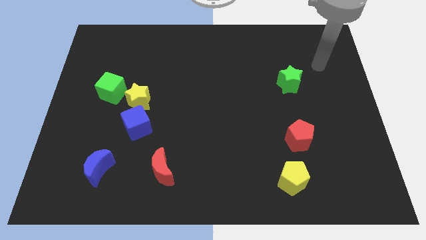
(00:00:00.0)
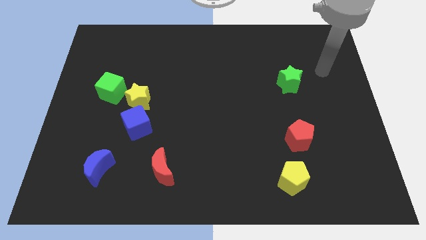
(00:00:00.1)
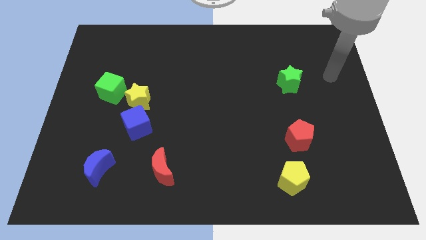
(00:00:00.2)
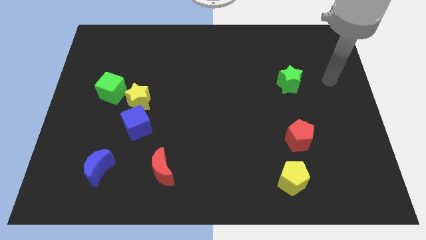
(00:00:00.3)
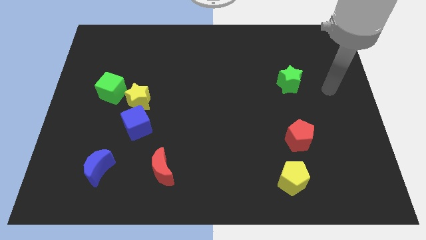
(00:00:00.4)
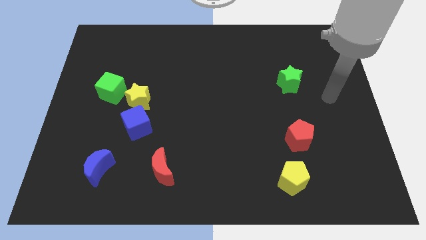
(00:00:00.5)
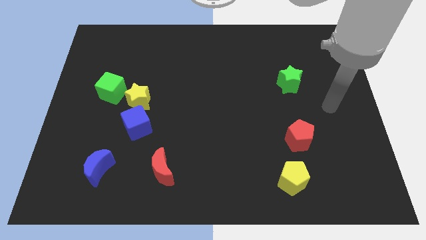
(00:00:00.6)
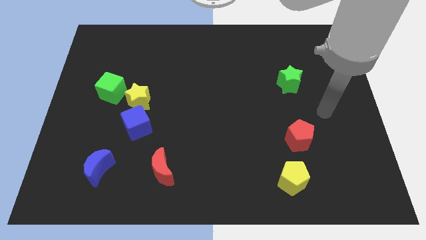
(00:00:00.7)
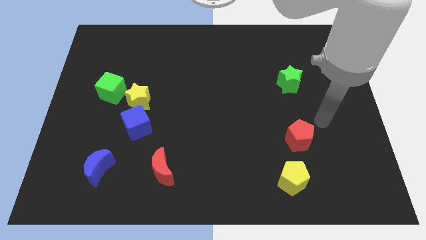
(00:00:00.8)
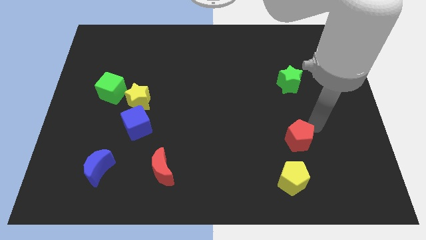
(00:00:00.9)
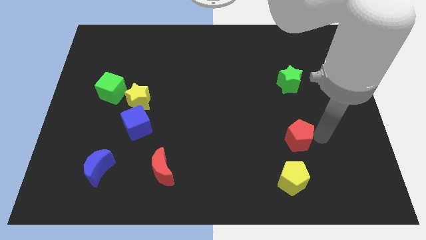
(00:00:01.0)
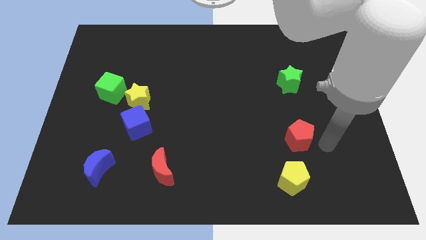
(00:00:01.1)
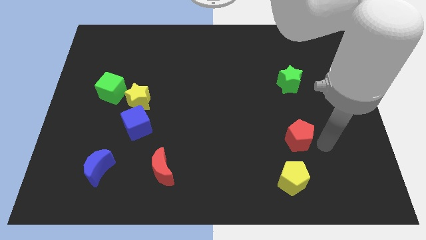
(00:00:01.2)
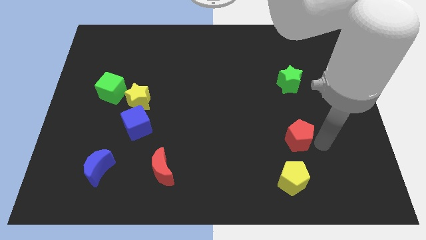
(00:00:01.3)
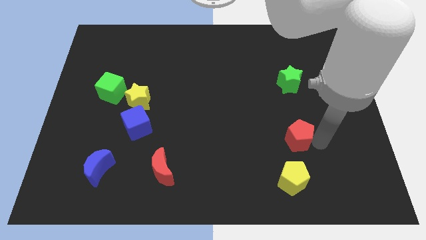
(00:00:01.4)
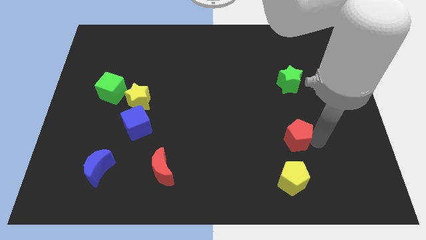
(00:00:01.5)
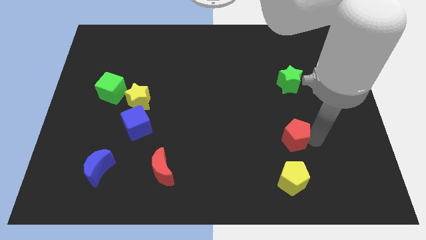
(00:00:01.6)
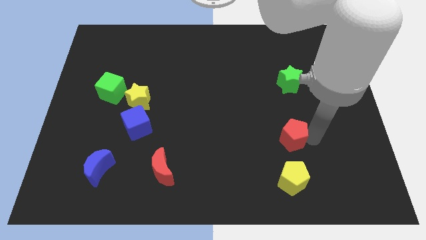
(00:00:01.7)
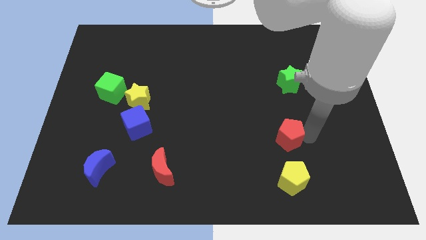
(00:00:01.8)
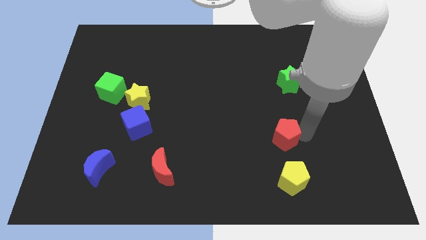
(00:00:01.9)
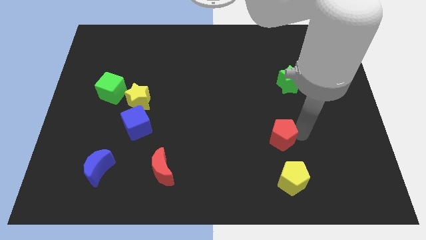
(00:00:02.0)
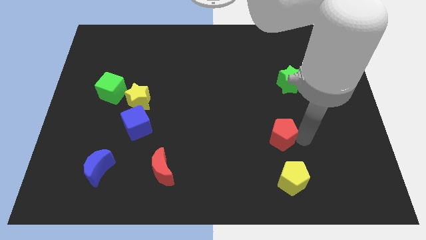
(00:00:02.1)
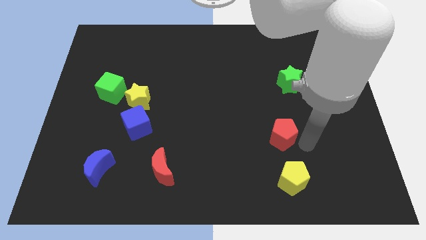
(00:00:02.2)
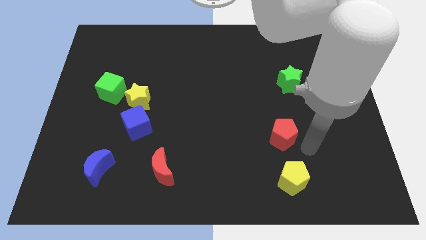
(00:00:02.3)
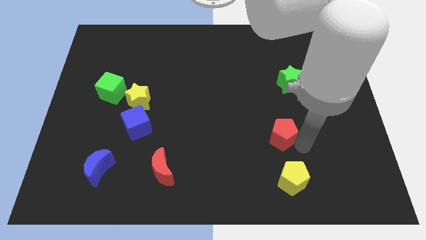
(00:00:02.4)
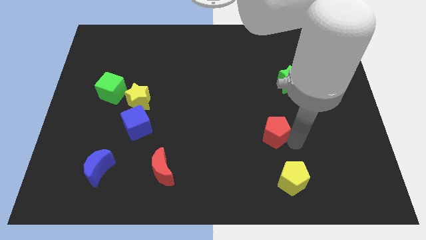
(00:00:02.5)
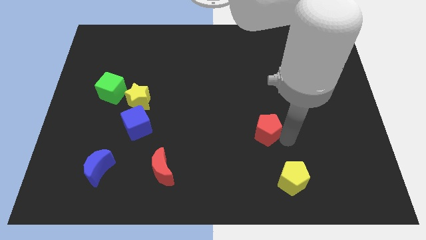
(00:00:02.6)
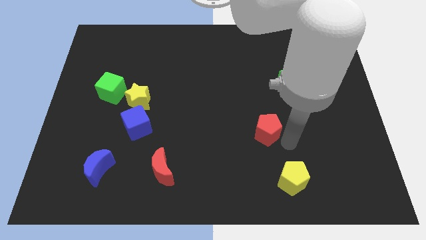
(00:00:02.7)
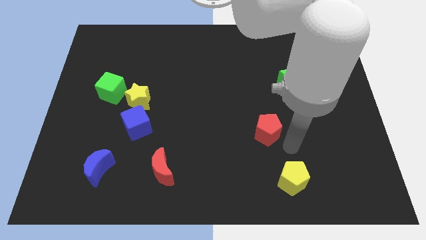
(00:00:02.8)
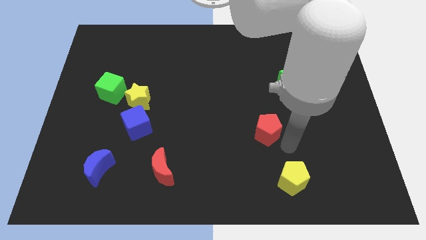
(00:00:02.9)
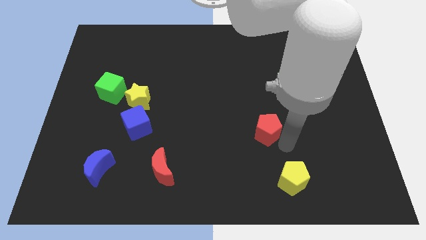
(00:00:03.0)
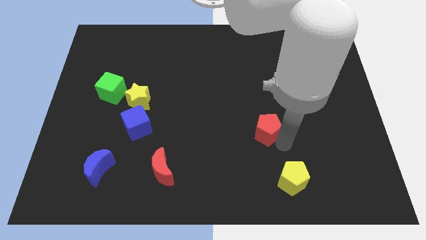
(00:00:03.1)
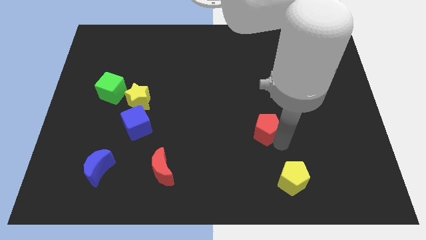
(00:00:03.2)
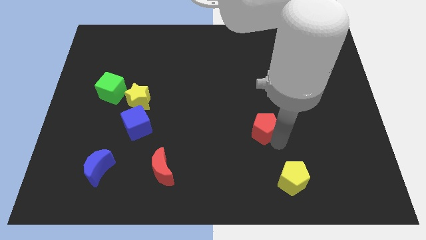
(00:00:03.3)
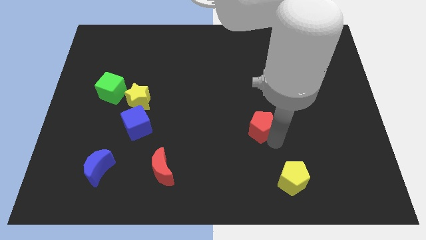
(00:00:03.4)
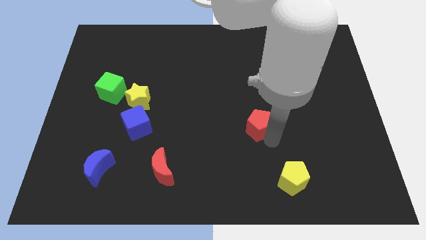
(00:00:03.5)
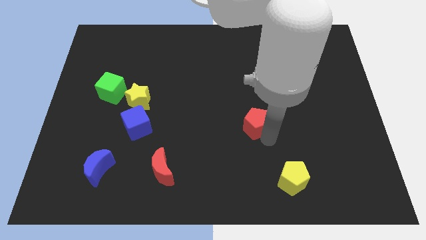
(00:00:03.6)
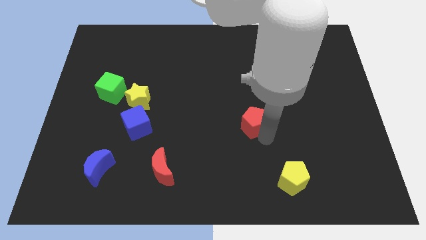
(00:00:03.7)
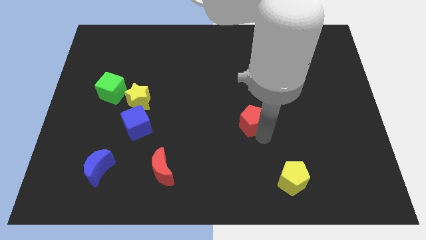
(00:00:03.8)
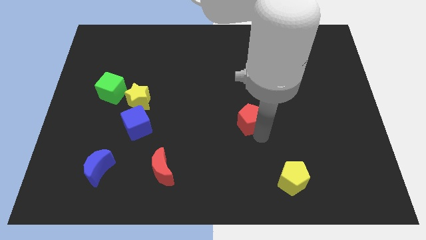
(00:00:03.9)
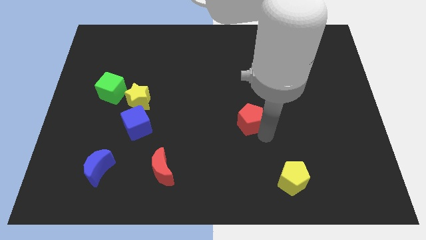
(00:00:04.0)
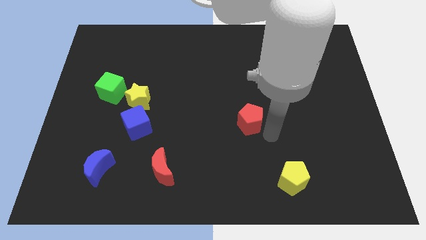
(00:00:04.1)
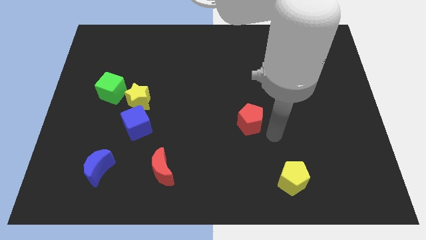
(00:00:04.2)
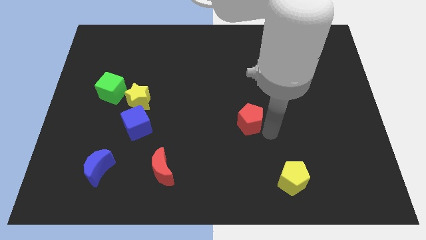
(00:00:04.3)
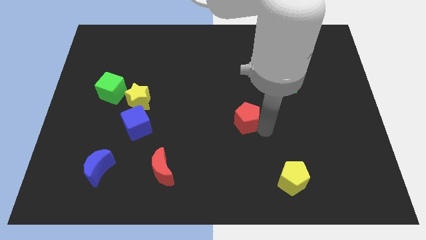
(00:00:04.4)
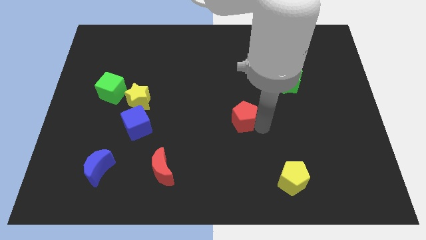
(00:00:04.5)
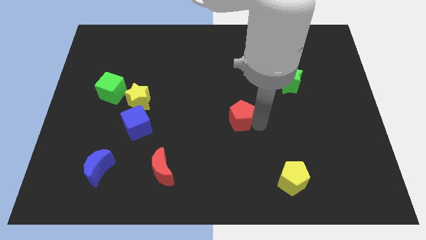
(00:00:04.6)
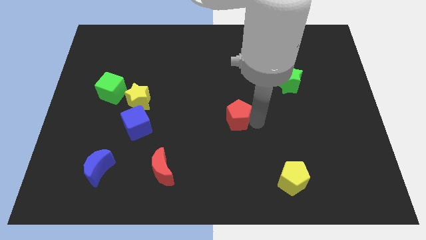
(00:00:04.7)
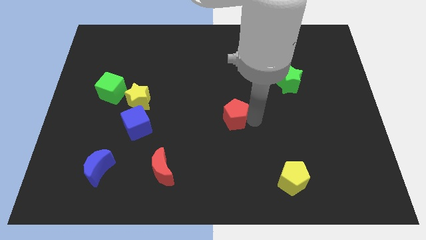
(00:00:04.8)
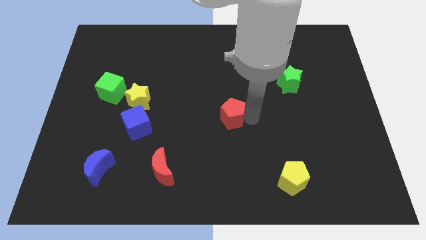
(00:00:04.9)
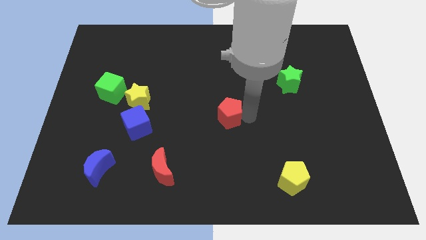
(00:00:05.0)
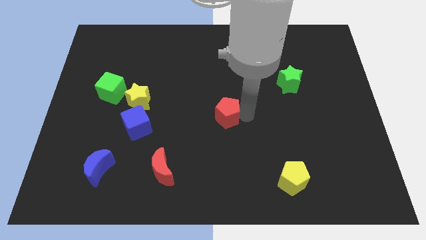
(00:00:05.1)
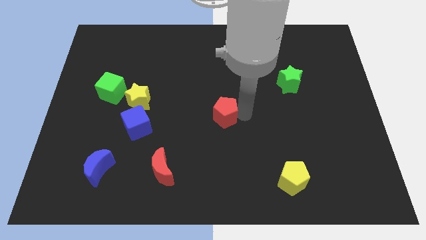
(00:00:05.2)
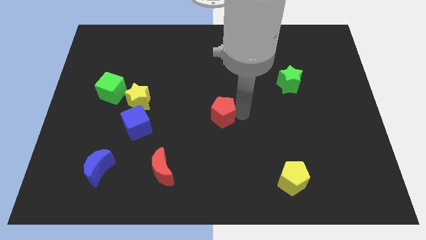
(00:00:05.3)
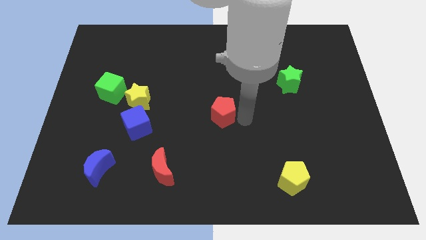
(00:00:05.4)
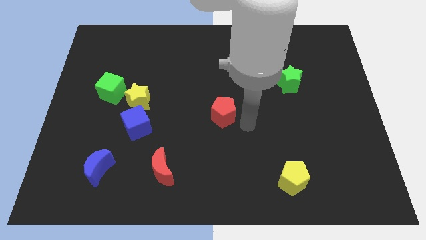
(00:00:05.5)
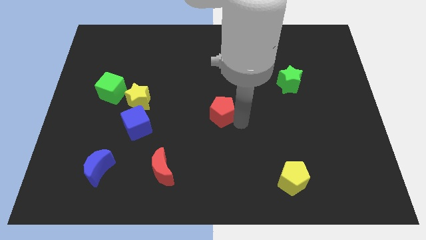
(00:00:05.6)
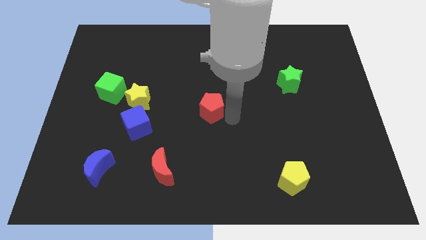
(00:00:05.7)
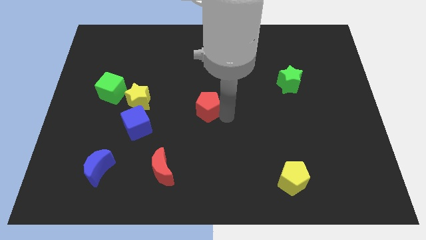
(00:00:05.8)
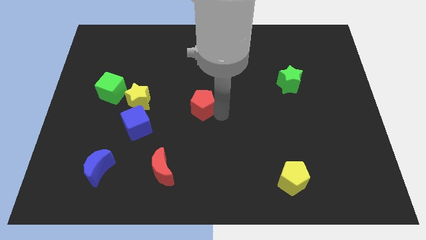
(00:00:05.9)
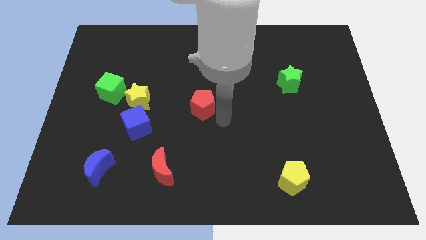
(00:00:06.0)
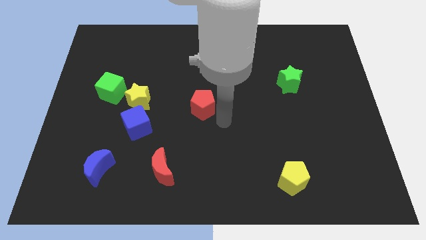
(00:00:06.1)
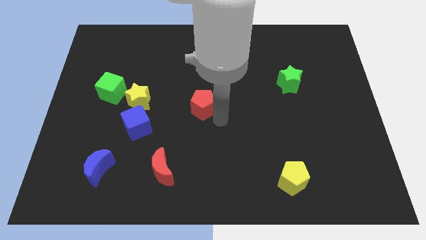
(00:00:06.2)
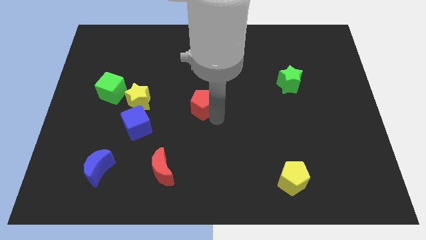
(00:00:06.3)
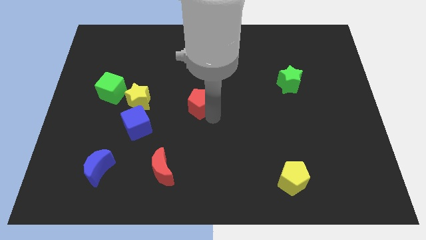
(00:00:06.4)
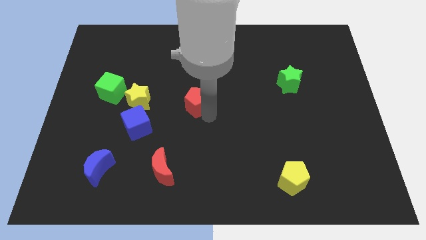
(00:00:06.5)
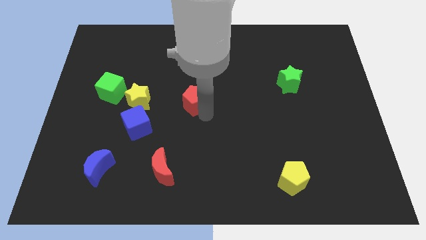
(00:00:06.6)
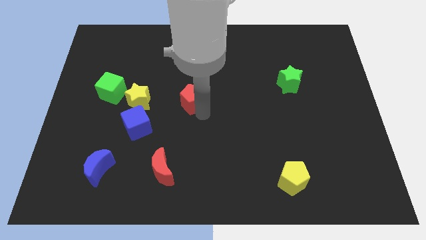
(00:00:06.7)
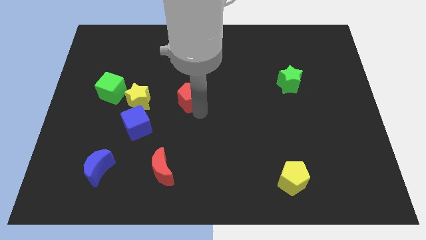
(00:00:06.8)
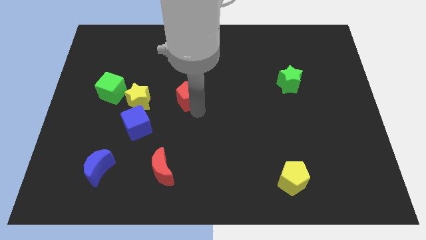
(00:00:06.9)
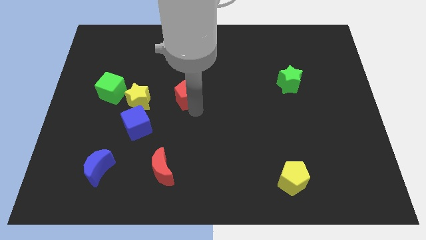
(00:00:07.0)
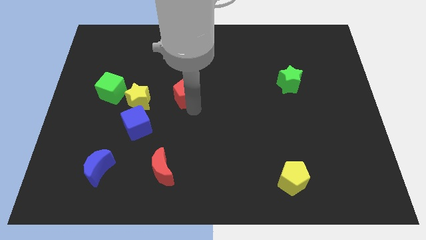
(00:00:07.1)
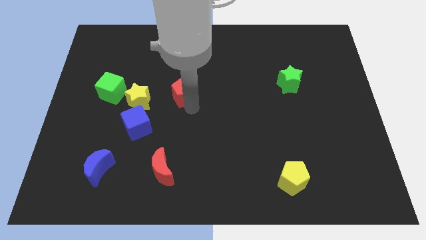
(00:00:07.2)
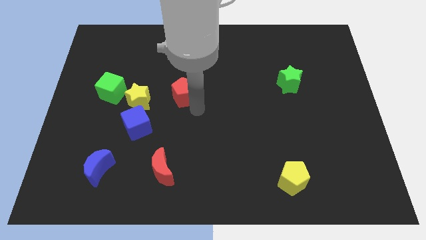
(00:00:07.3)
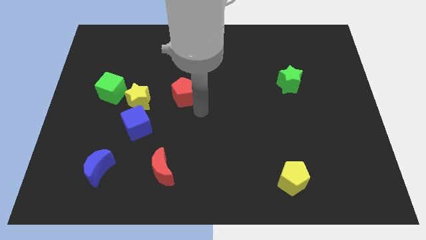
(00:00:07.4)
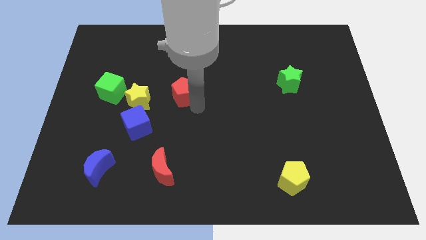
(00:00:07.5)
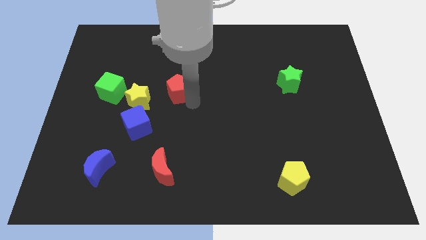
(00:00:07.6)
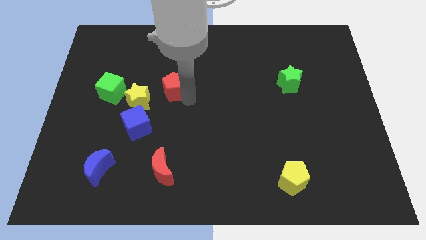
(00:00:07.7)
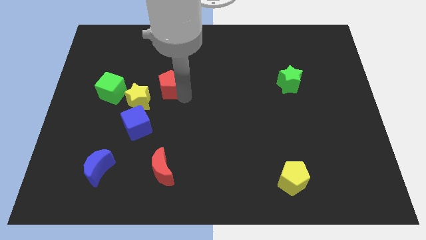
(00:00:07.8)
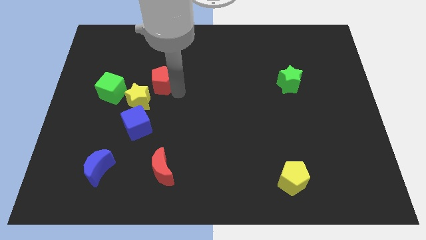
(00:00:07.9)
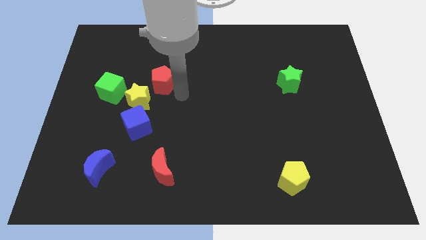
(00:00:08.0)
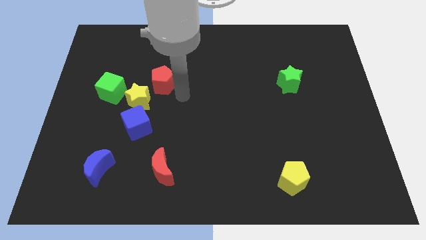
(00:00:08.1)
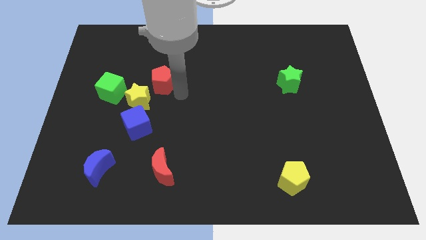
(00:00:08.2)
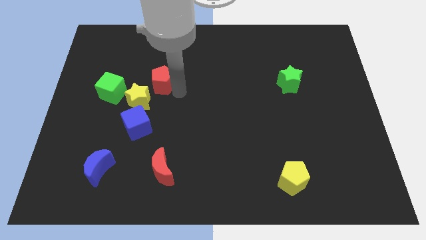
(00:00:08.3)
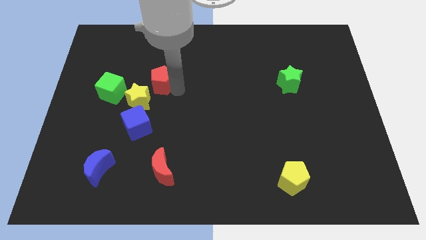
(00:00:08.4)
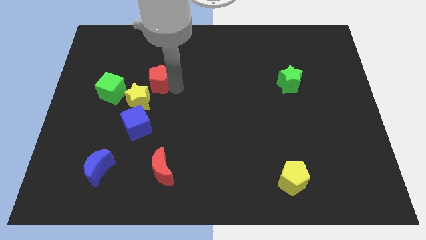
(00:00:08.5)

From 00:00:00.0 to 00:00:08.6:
slide the red pentagon to the top of the yellow star
